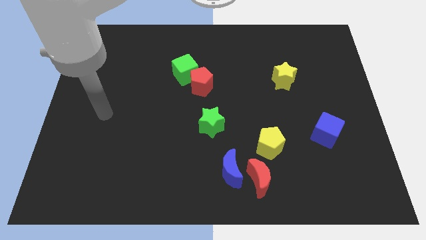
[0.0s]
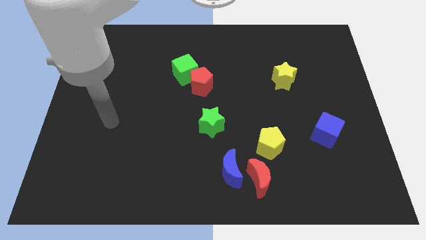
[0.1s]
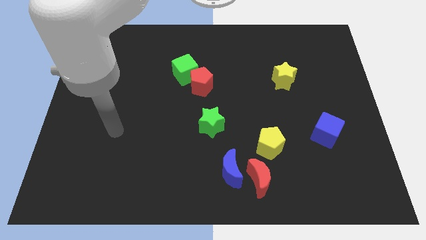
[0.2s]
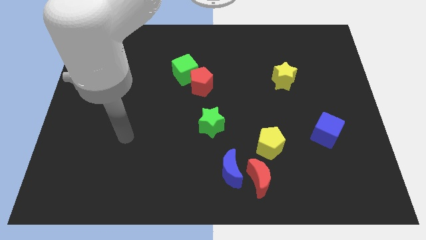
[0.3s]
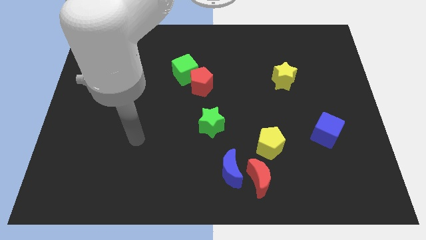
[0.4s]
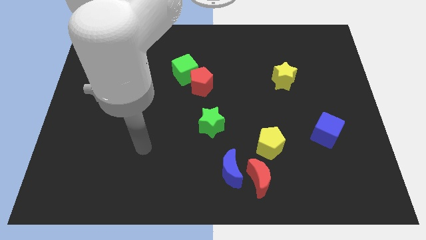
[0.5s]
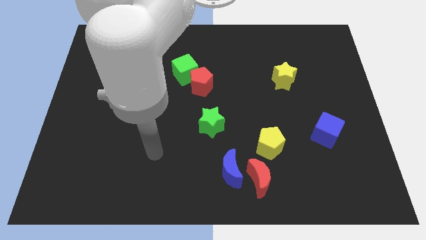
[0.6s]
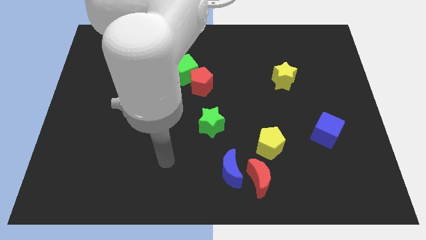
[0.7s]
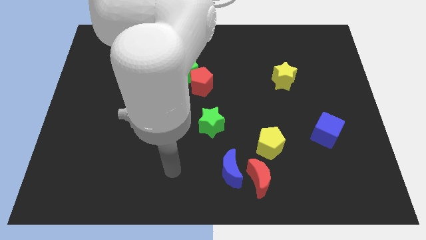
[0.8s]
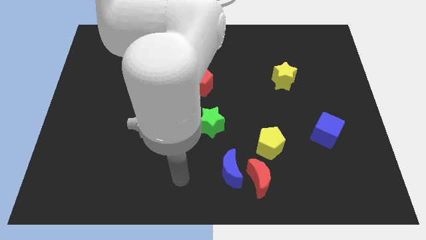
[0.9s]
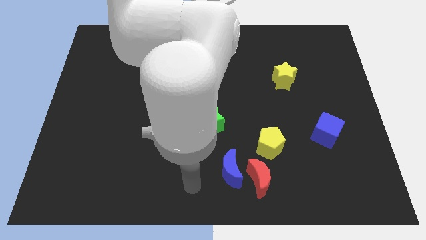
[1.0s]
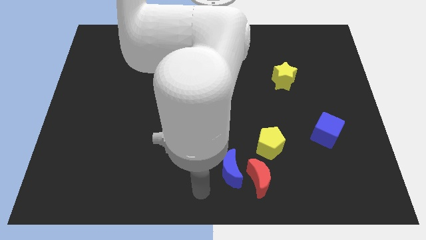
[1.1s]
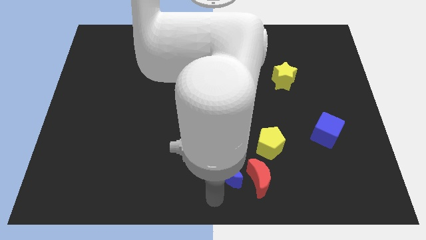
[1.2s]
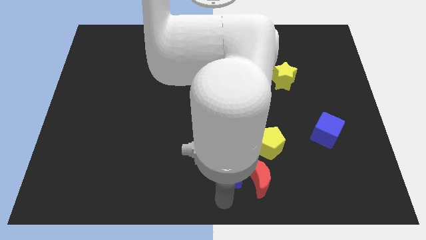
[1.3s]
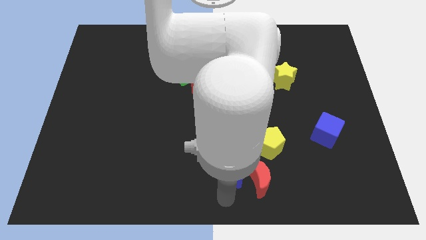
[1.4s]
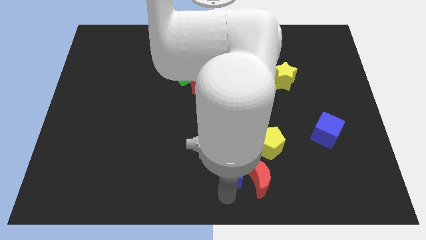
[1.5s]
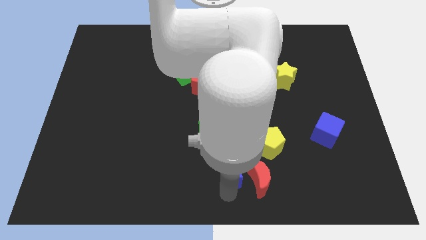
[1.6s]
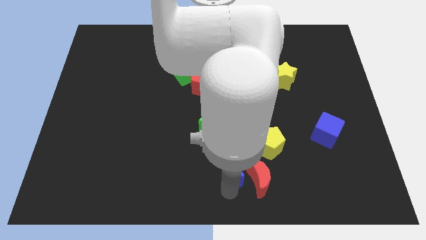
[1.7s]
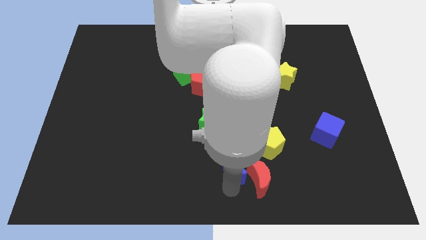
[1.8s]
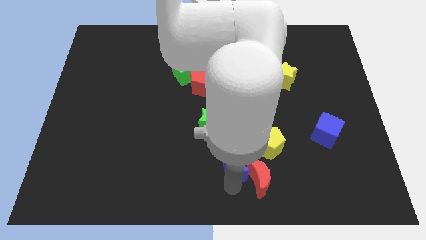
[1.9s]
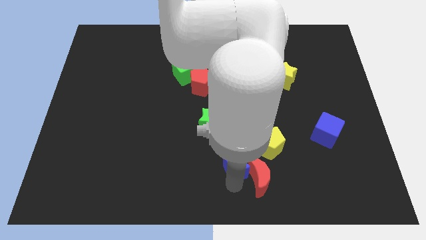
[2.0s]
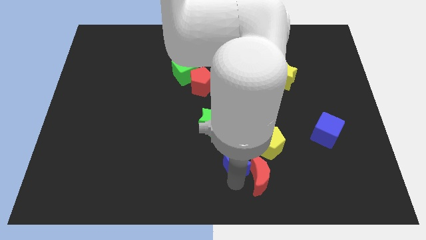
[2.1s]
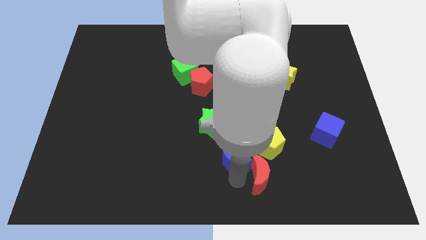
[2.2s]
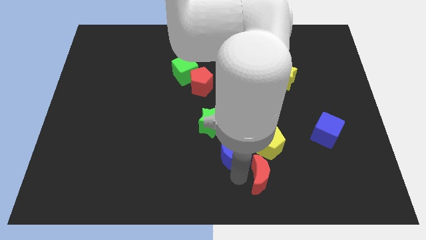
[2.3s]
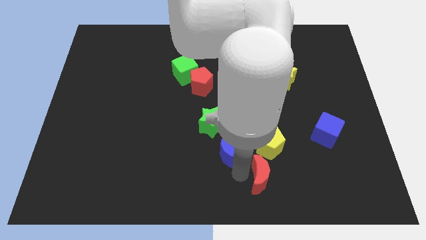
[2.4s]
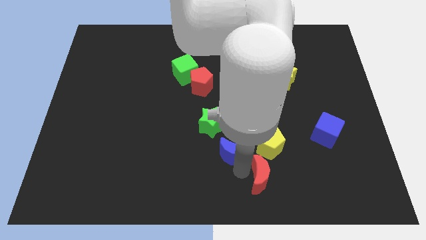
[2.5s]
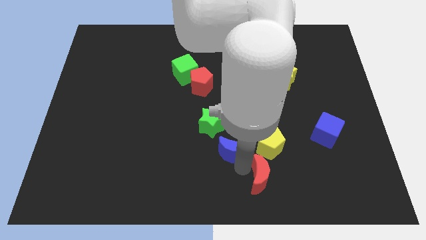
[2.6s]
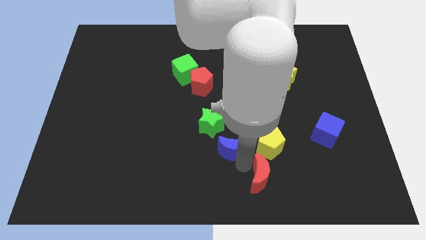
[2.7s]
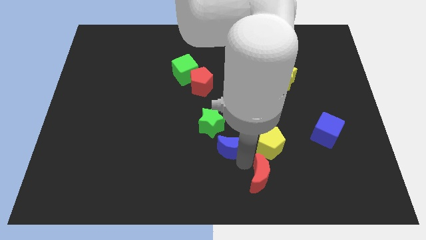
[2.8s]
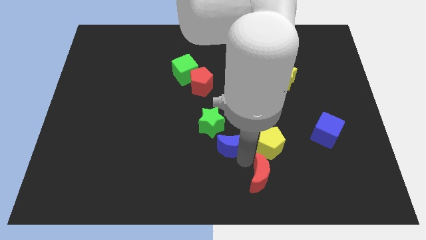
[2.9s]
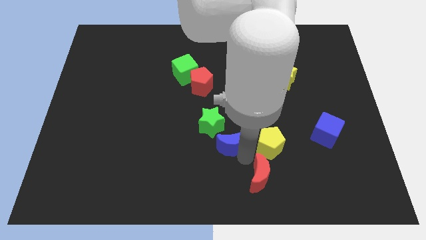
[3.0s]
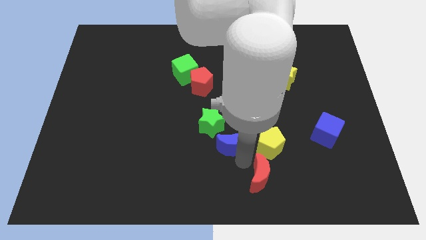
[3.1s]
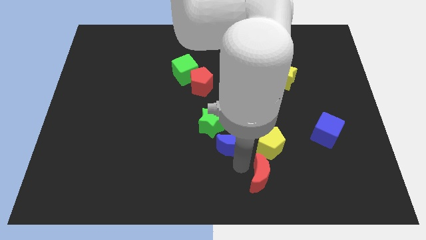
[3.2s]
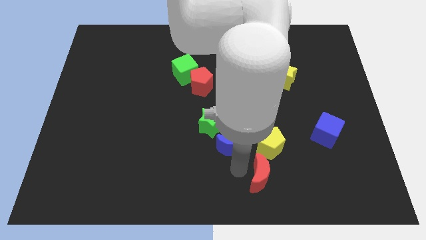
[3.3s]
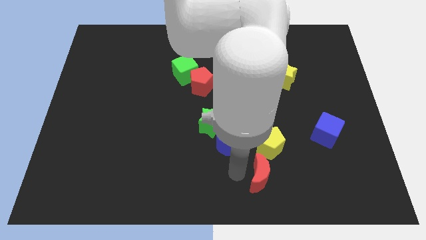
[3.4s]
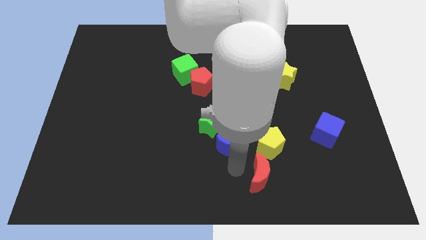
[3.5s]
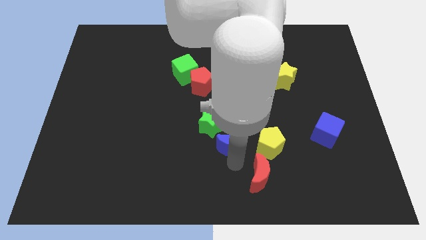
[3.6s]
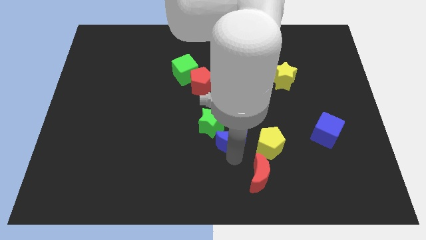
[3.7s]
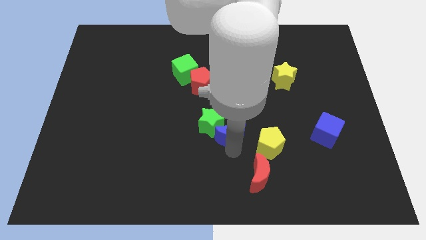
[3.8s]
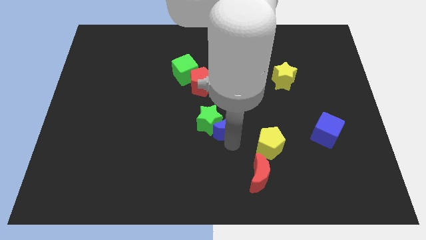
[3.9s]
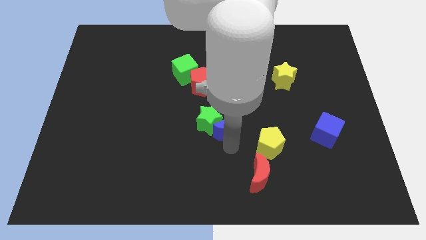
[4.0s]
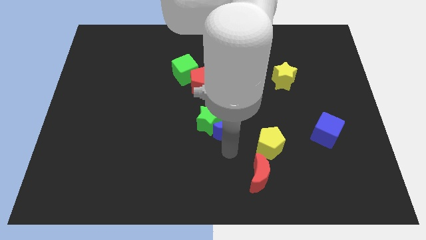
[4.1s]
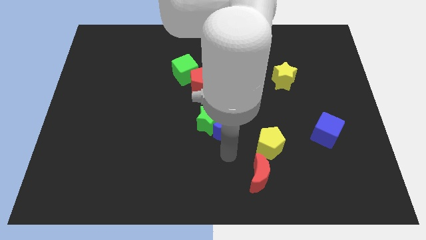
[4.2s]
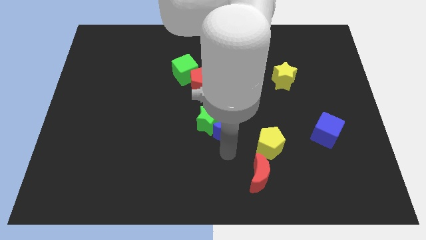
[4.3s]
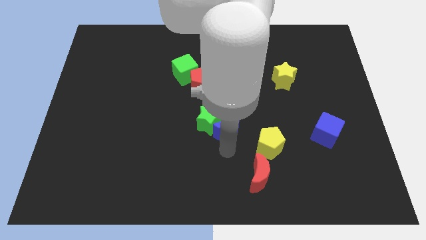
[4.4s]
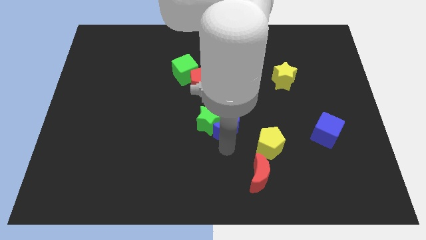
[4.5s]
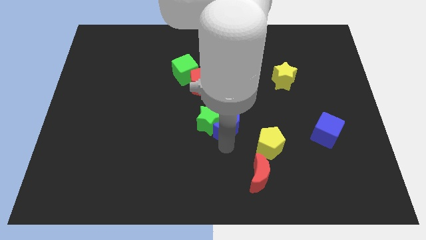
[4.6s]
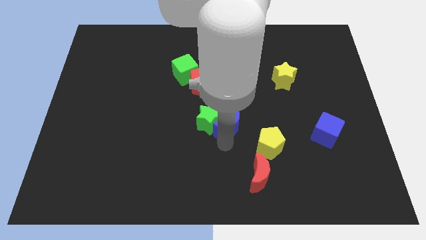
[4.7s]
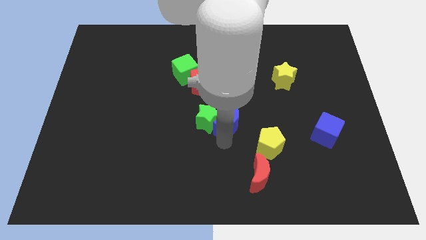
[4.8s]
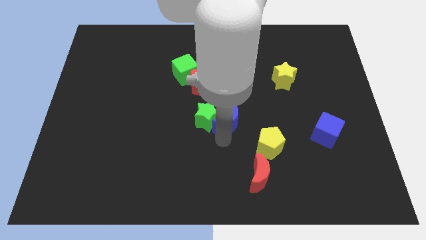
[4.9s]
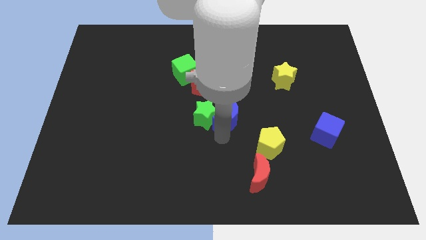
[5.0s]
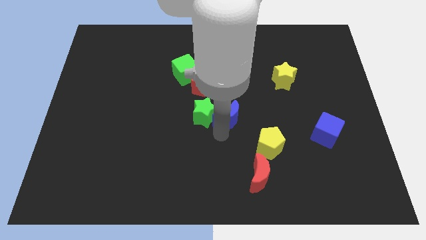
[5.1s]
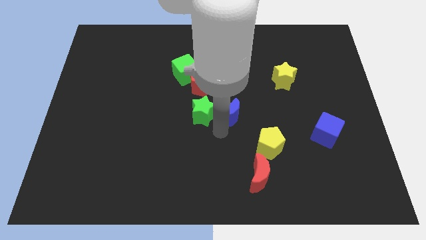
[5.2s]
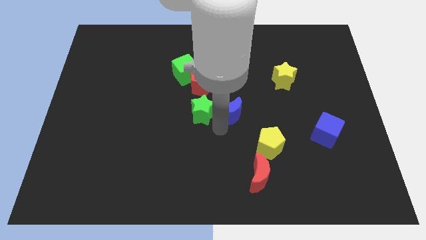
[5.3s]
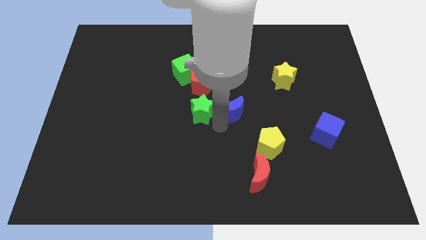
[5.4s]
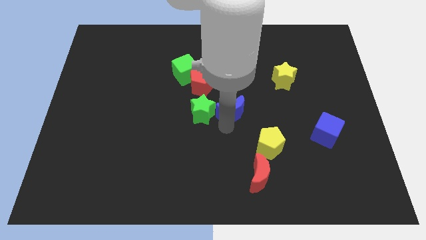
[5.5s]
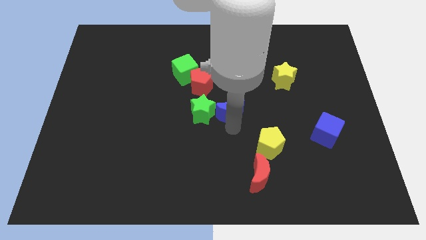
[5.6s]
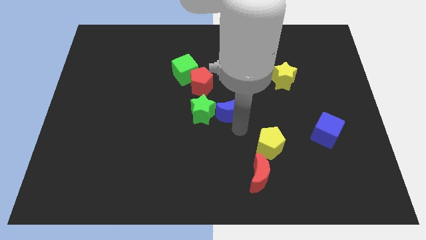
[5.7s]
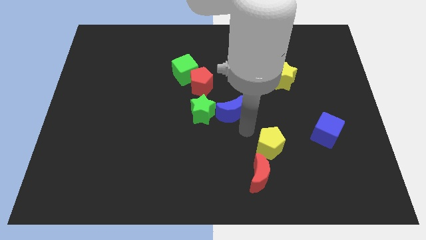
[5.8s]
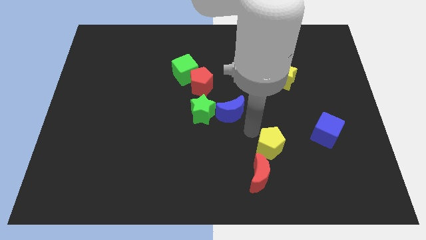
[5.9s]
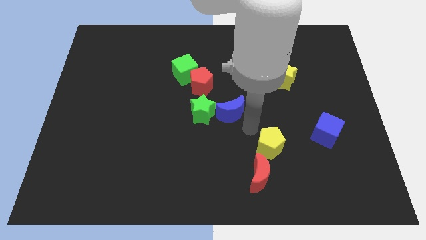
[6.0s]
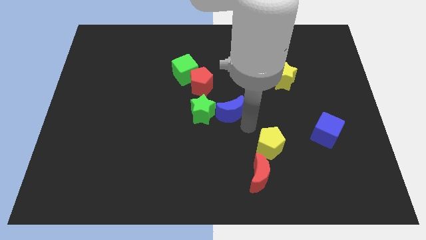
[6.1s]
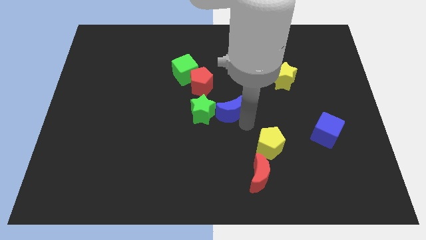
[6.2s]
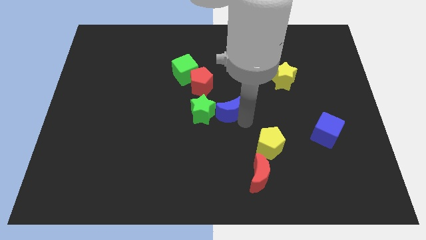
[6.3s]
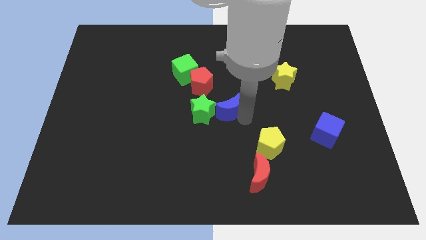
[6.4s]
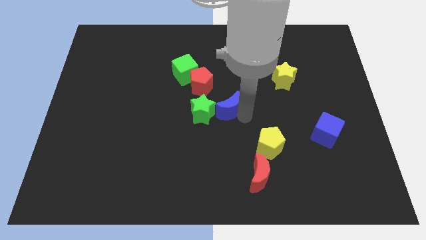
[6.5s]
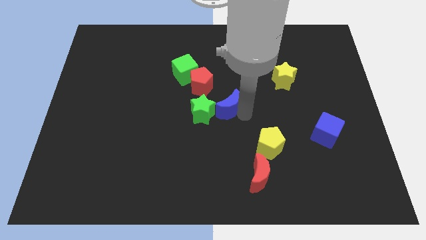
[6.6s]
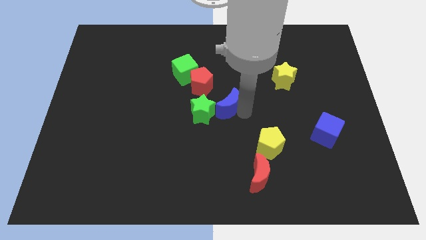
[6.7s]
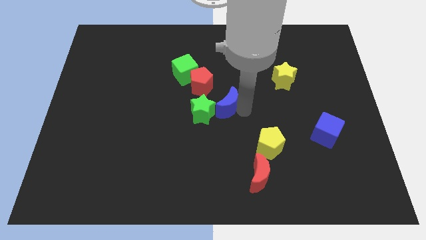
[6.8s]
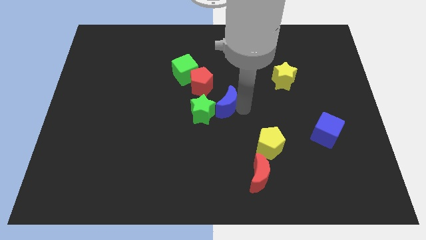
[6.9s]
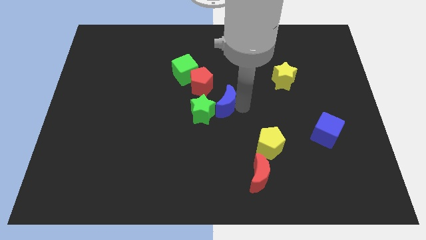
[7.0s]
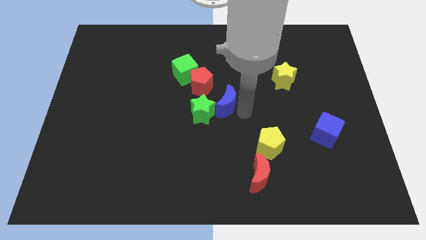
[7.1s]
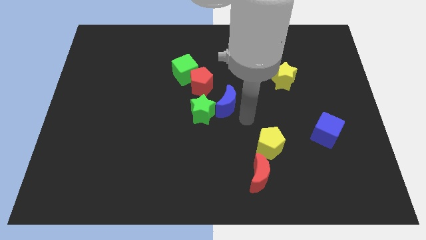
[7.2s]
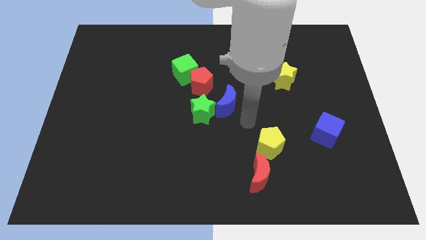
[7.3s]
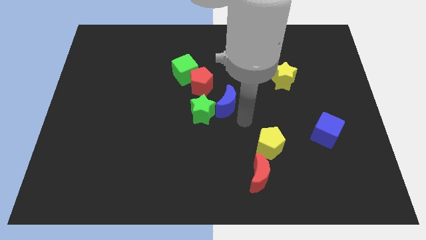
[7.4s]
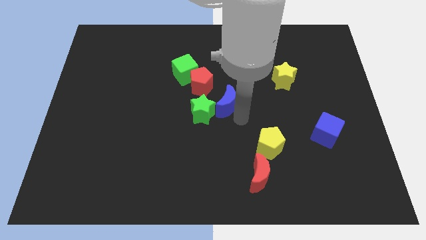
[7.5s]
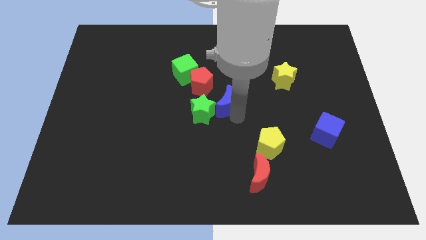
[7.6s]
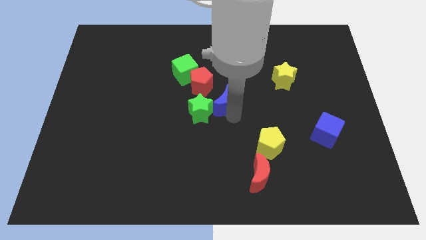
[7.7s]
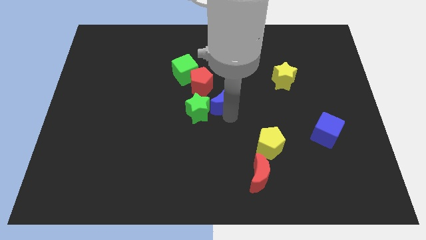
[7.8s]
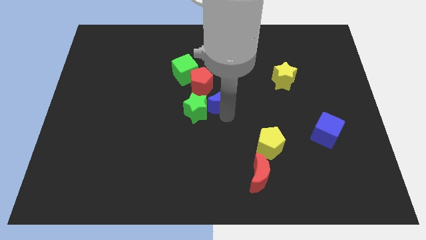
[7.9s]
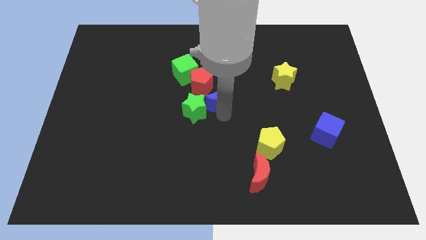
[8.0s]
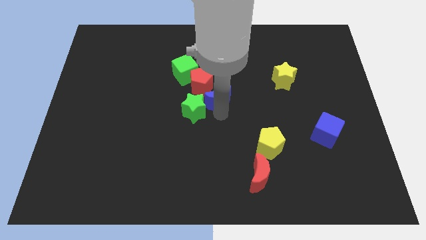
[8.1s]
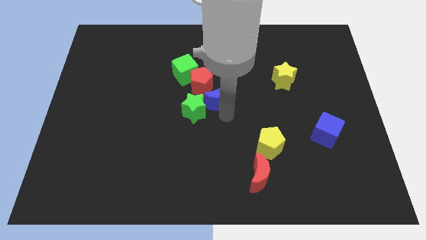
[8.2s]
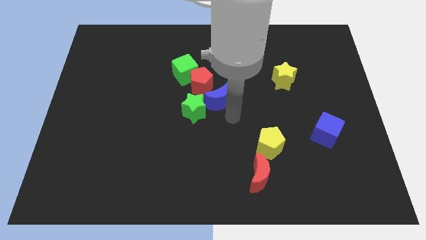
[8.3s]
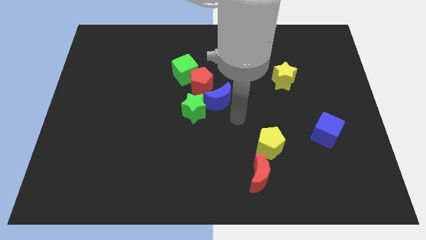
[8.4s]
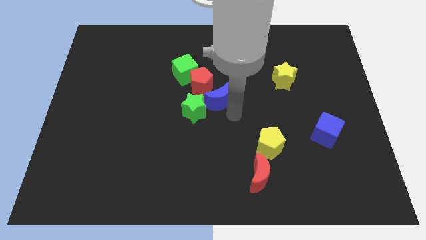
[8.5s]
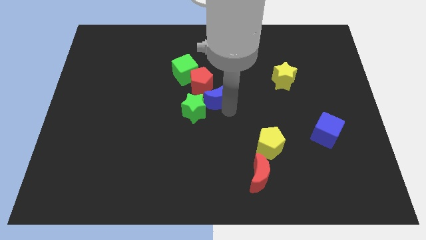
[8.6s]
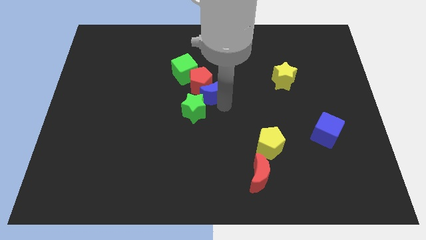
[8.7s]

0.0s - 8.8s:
push the blue moon towards the red pentagon
